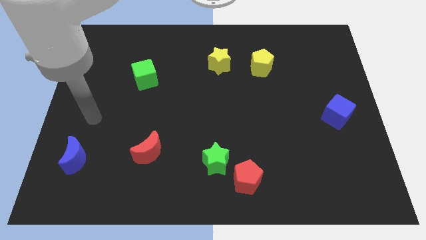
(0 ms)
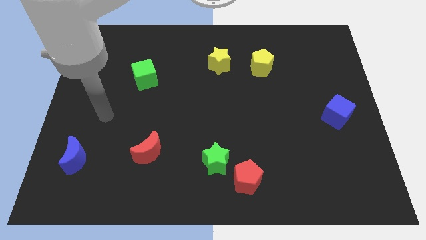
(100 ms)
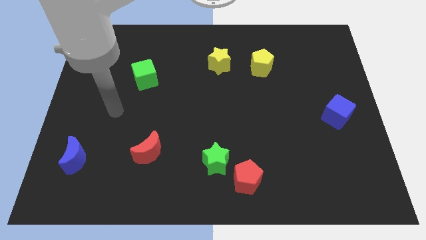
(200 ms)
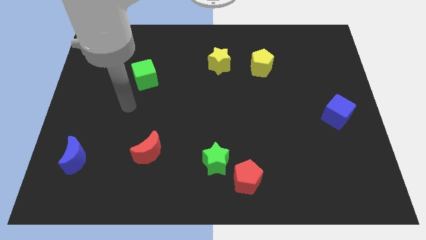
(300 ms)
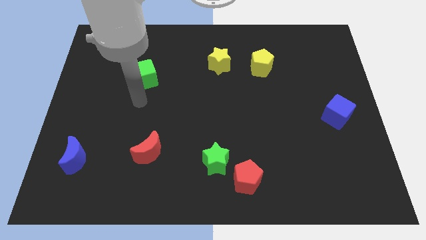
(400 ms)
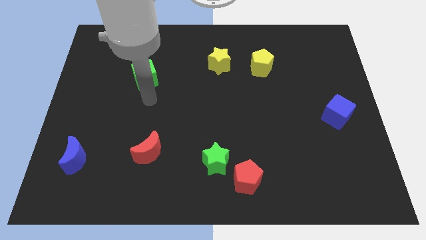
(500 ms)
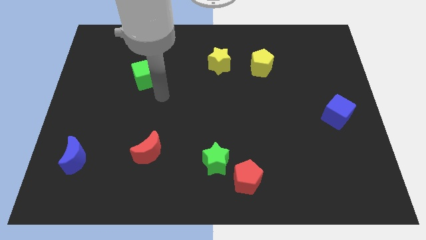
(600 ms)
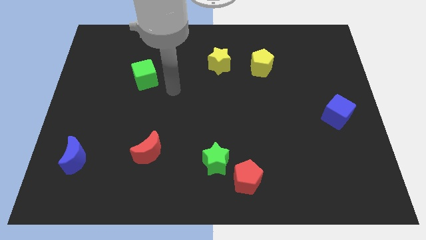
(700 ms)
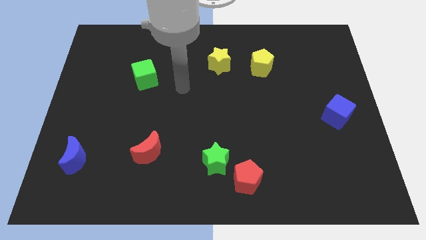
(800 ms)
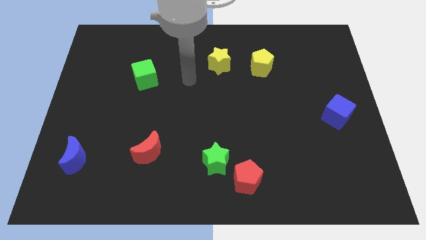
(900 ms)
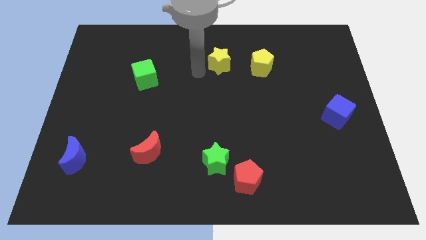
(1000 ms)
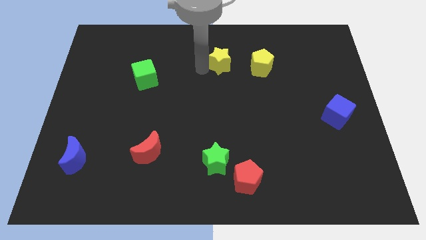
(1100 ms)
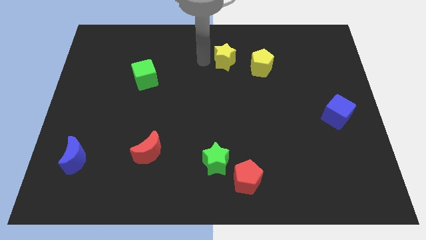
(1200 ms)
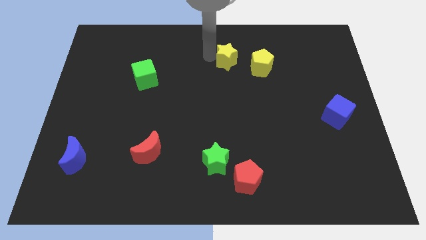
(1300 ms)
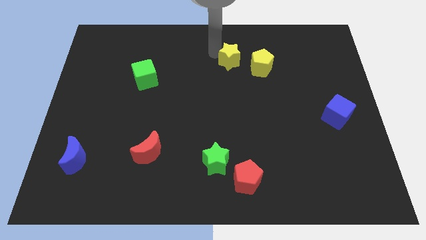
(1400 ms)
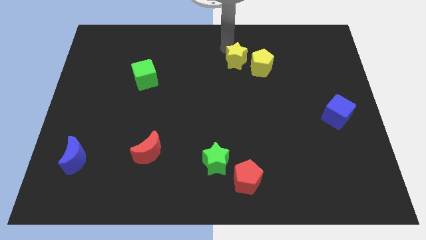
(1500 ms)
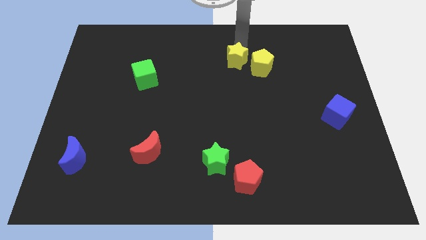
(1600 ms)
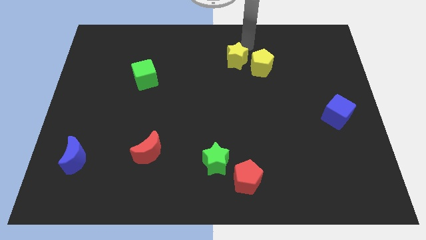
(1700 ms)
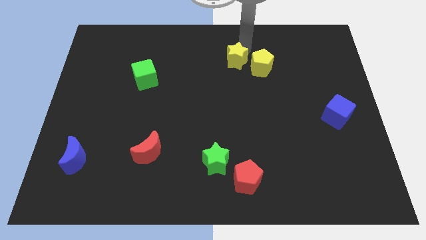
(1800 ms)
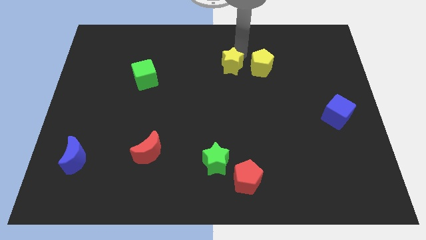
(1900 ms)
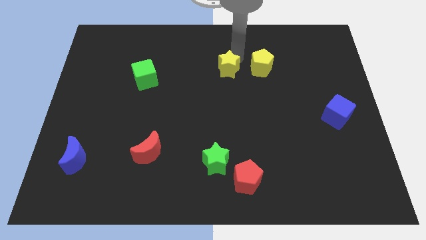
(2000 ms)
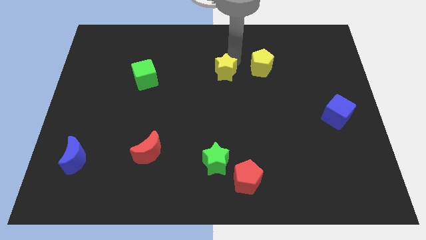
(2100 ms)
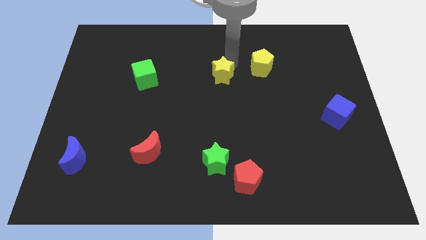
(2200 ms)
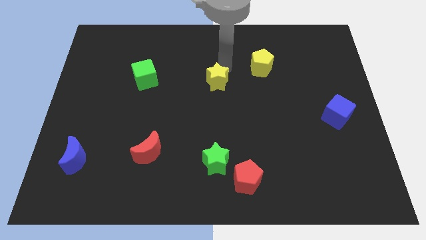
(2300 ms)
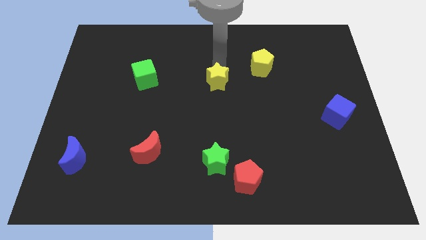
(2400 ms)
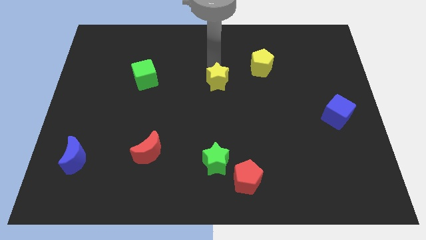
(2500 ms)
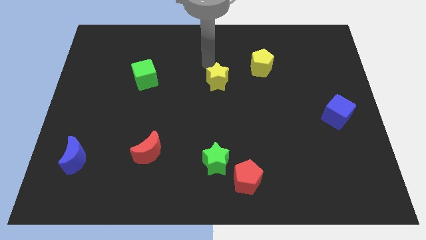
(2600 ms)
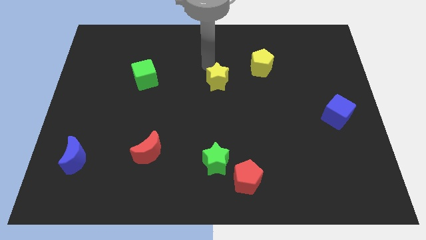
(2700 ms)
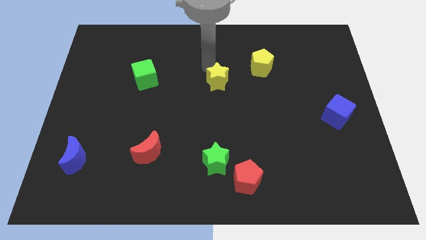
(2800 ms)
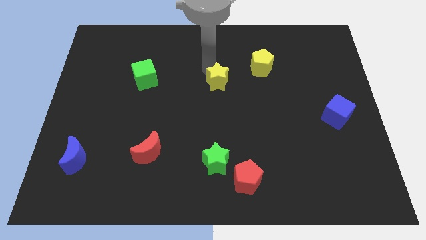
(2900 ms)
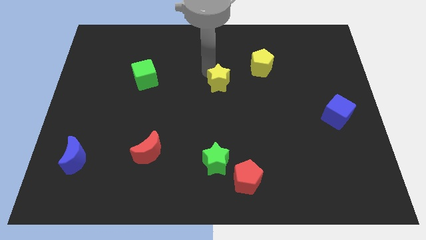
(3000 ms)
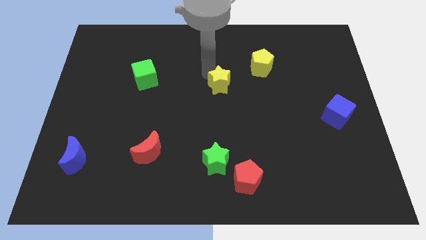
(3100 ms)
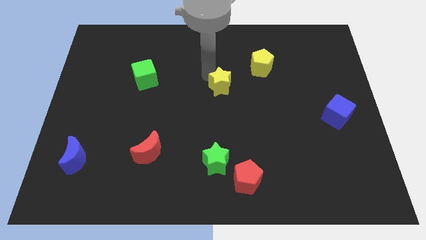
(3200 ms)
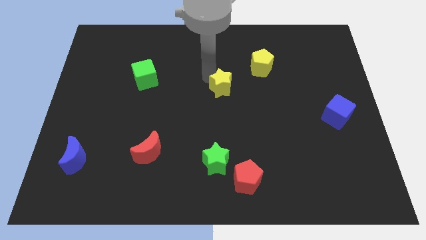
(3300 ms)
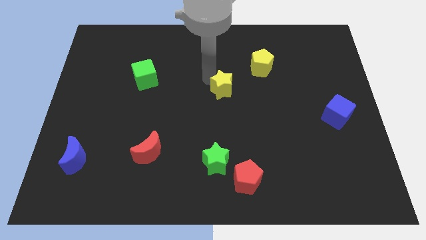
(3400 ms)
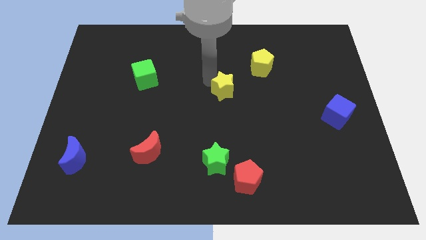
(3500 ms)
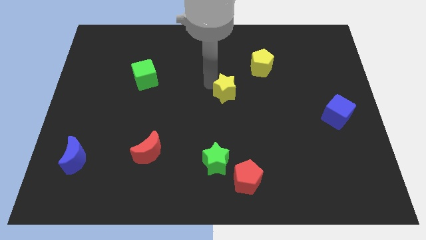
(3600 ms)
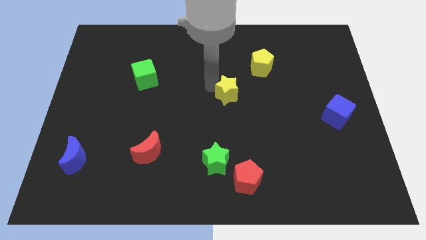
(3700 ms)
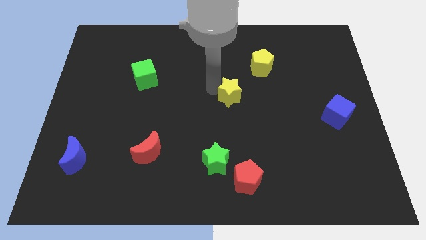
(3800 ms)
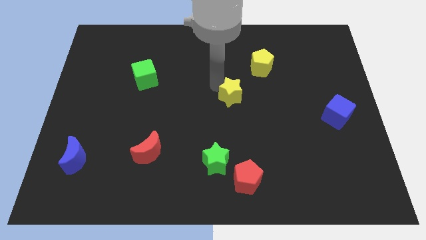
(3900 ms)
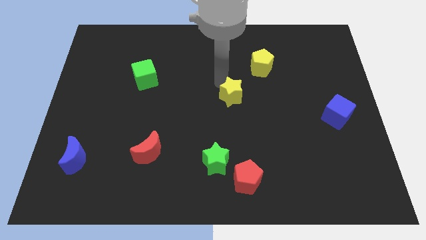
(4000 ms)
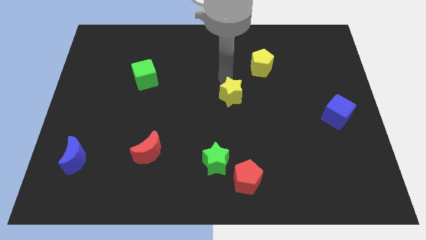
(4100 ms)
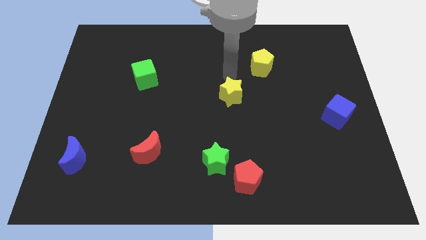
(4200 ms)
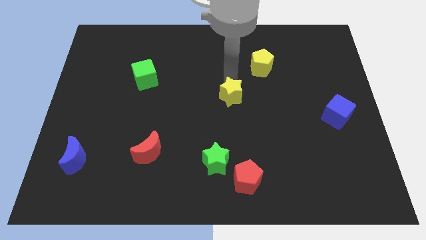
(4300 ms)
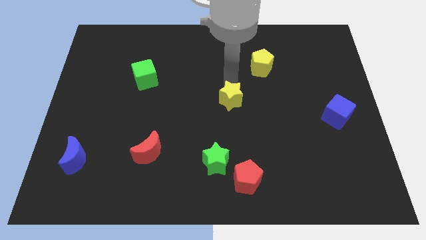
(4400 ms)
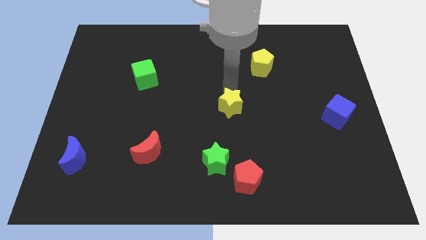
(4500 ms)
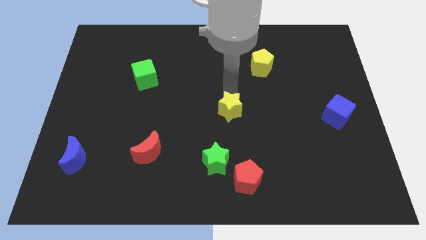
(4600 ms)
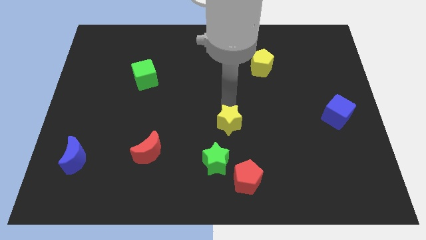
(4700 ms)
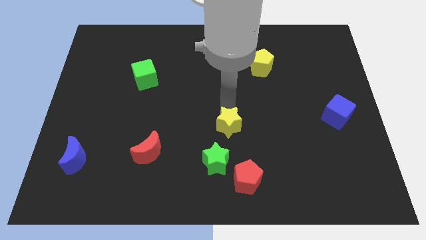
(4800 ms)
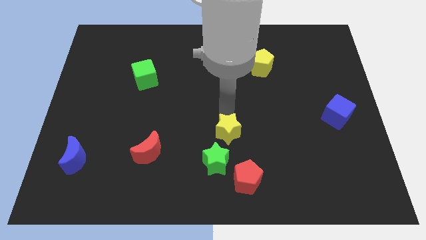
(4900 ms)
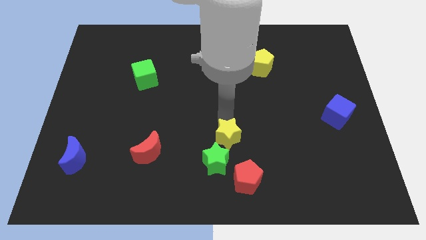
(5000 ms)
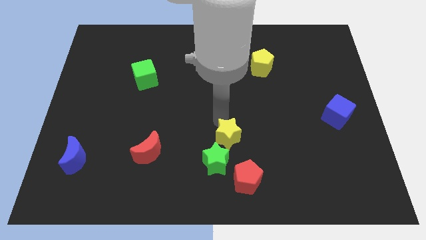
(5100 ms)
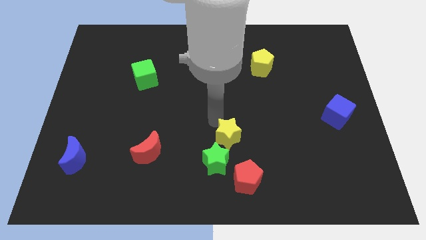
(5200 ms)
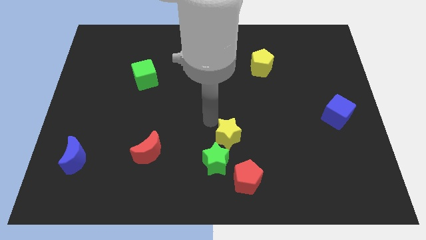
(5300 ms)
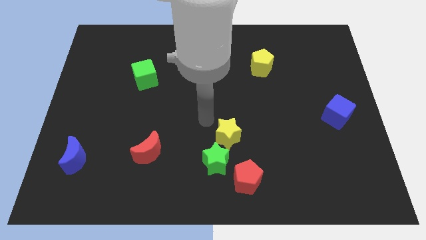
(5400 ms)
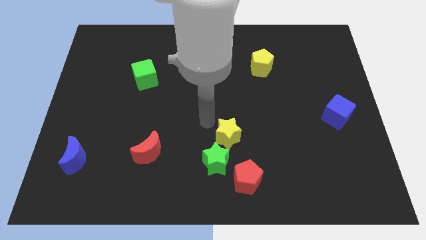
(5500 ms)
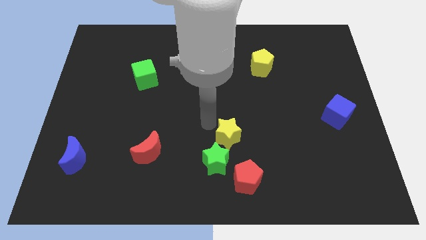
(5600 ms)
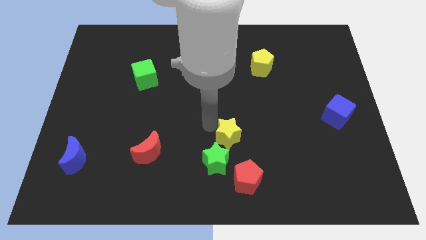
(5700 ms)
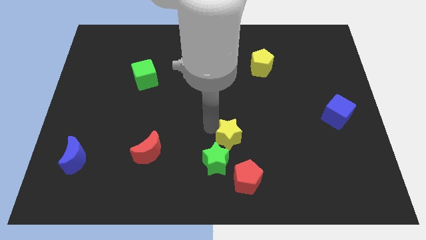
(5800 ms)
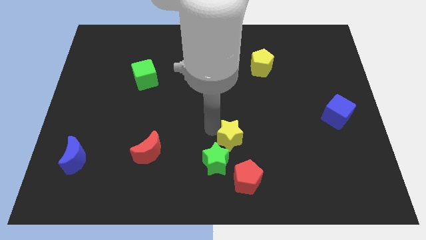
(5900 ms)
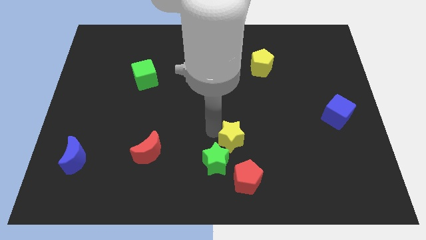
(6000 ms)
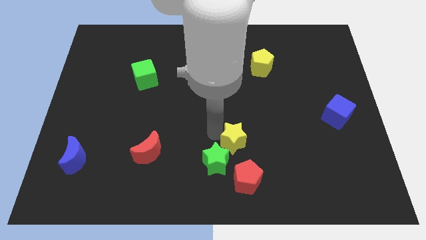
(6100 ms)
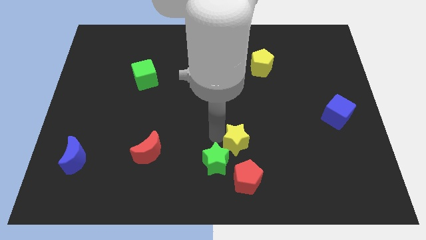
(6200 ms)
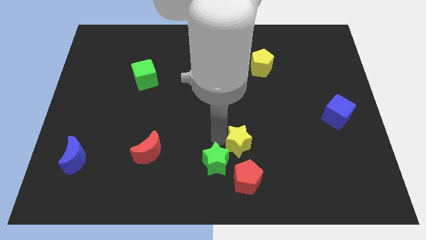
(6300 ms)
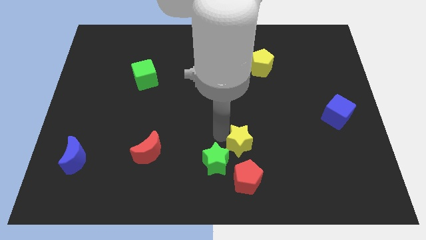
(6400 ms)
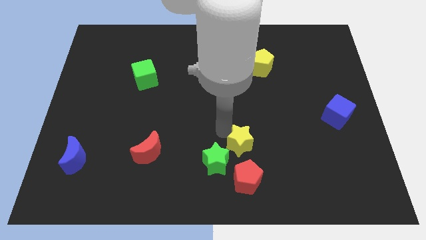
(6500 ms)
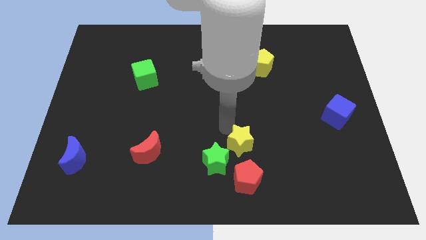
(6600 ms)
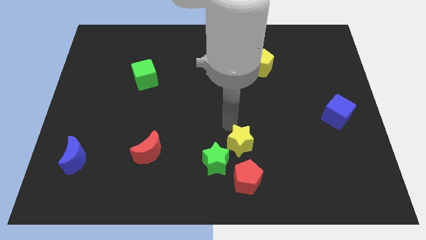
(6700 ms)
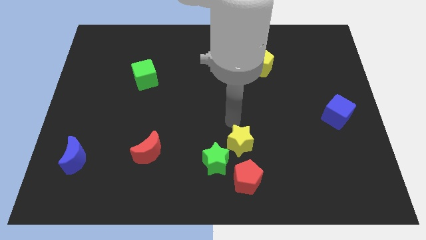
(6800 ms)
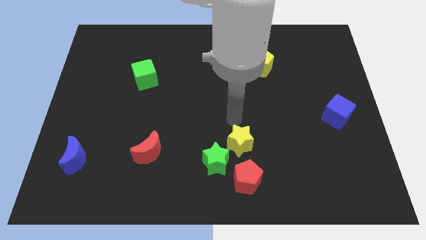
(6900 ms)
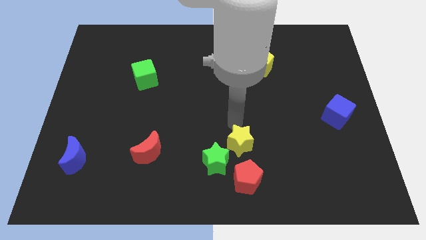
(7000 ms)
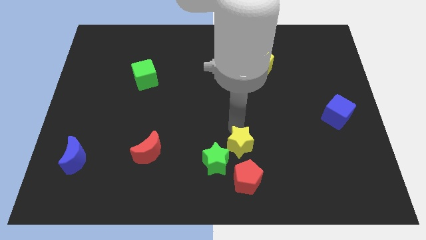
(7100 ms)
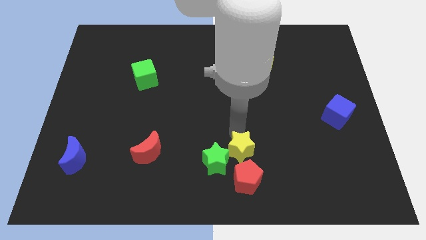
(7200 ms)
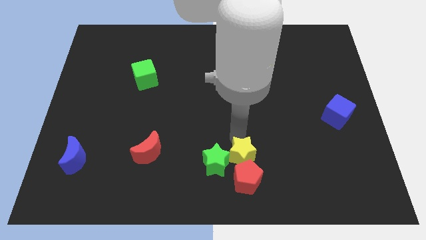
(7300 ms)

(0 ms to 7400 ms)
move the yellow star close to the red pentagon
